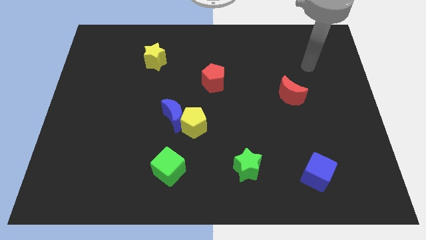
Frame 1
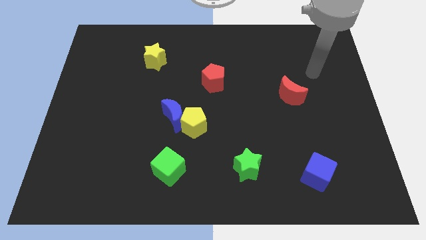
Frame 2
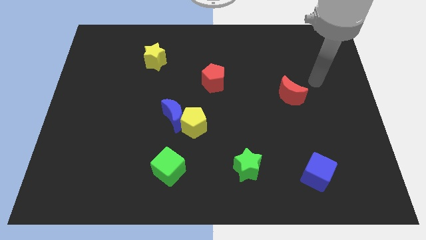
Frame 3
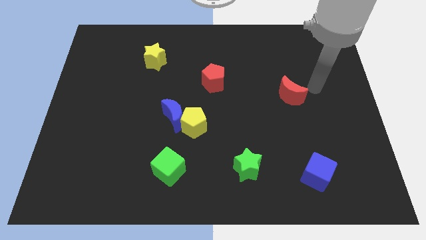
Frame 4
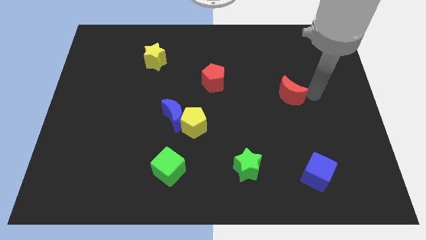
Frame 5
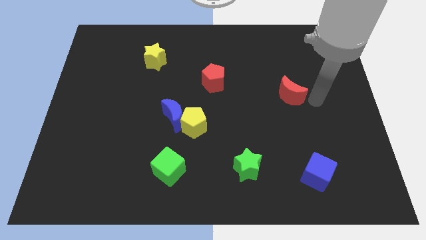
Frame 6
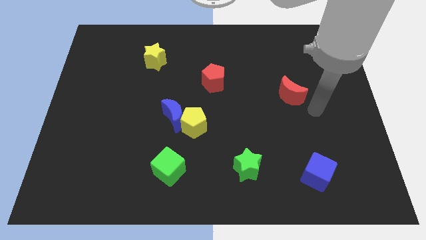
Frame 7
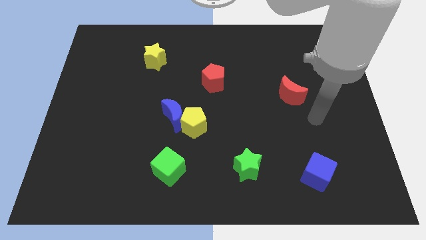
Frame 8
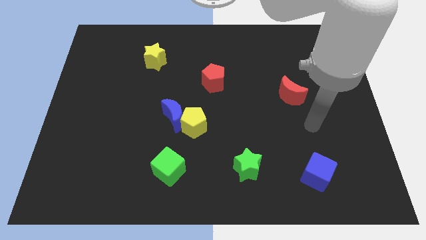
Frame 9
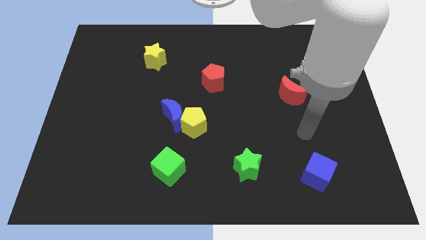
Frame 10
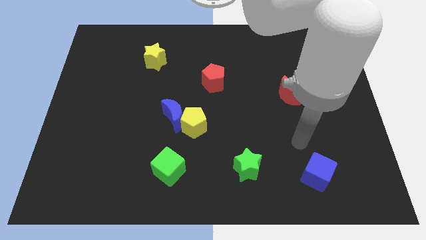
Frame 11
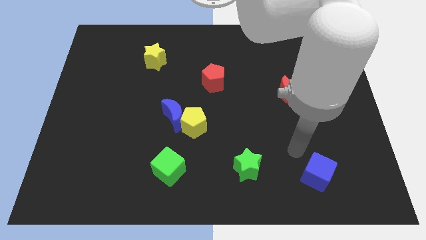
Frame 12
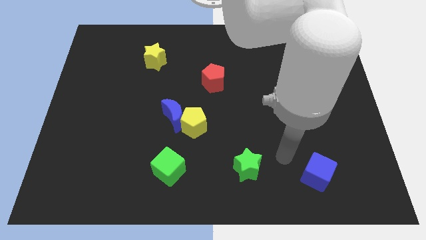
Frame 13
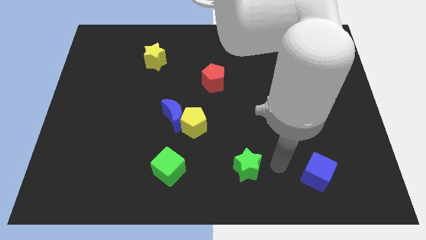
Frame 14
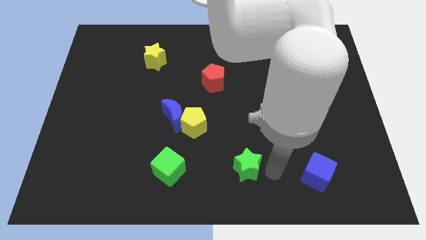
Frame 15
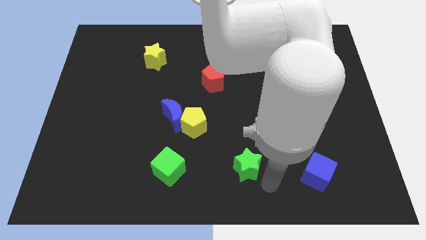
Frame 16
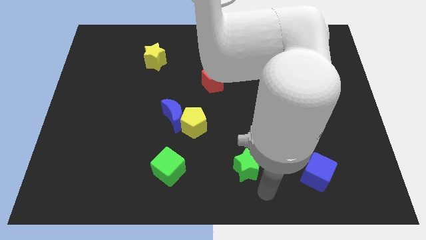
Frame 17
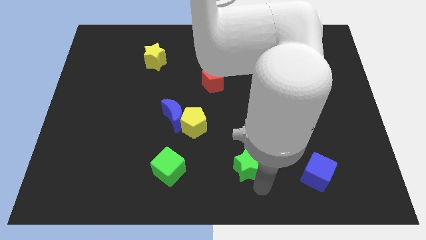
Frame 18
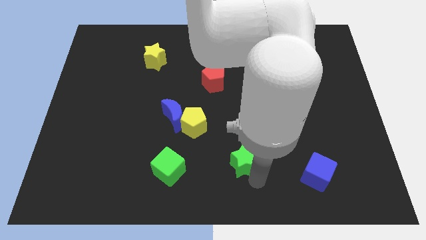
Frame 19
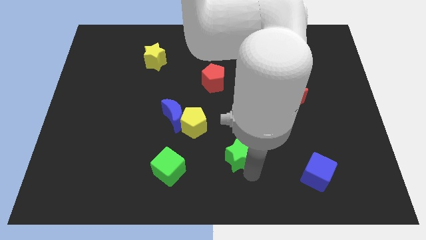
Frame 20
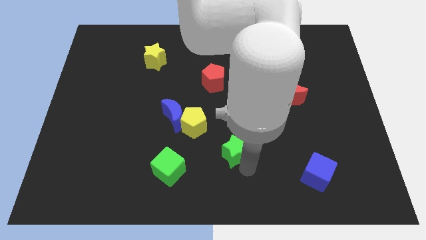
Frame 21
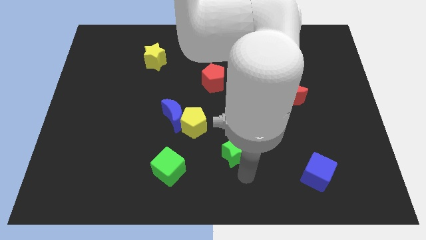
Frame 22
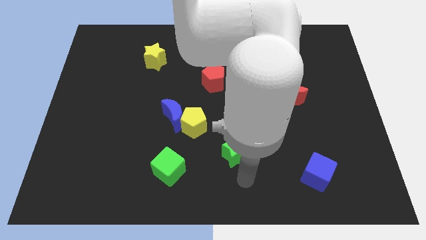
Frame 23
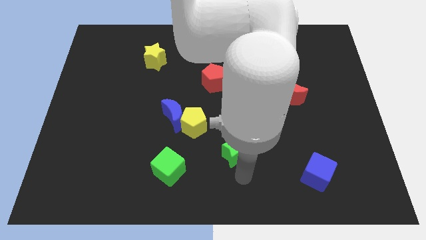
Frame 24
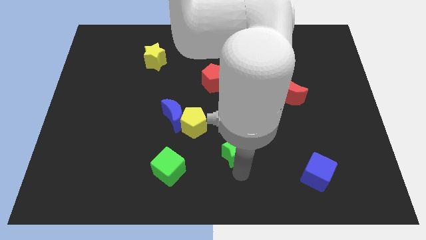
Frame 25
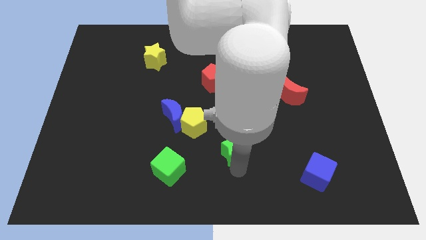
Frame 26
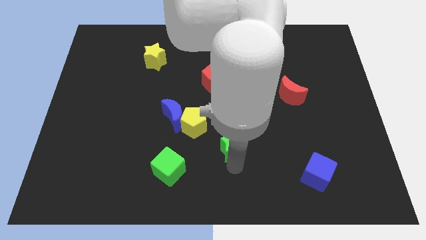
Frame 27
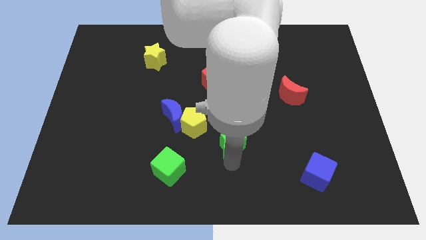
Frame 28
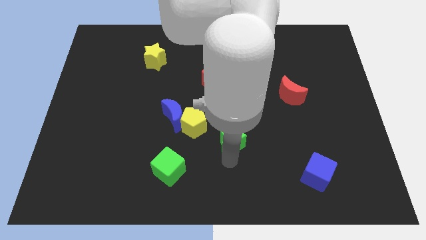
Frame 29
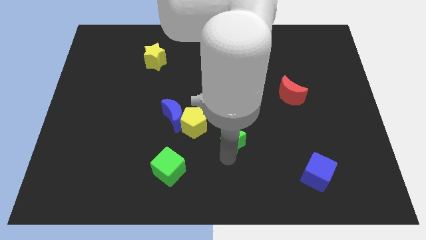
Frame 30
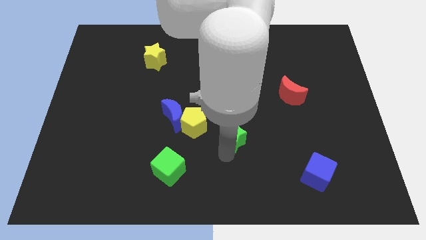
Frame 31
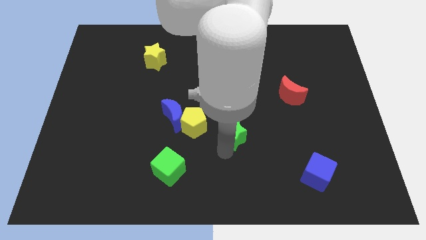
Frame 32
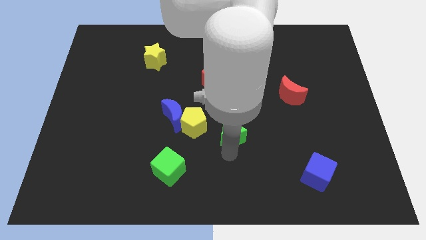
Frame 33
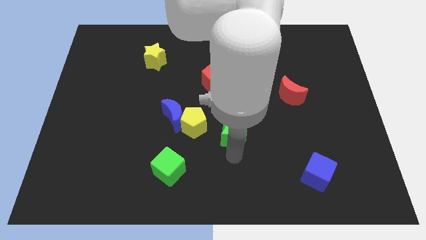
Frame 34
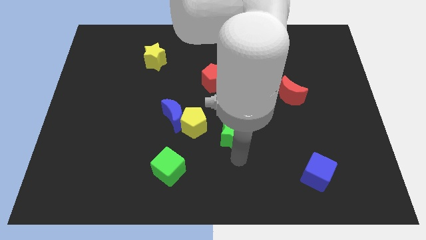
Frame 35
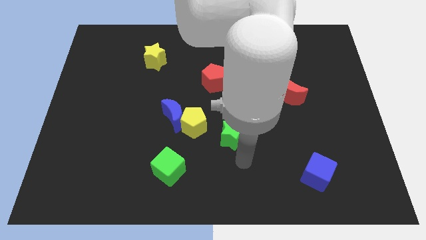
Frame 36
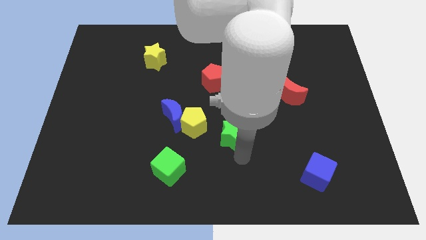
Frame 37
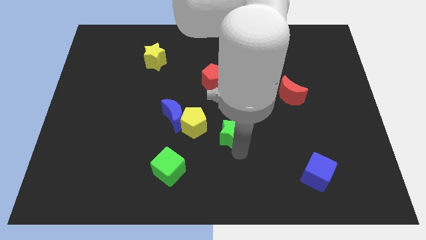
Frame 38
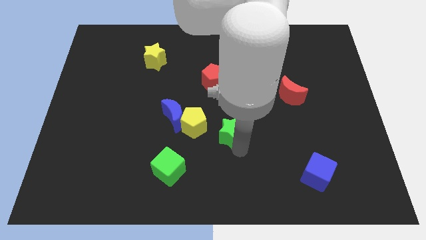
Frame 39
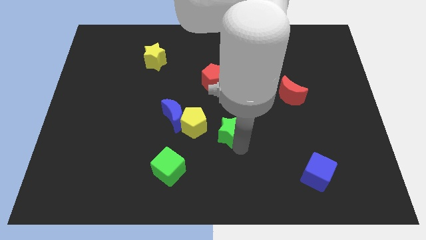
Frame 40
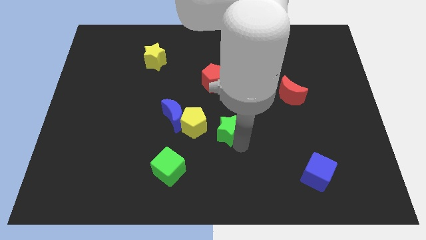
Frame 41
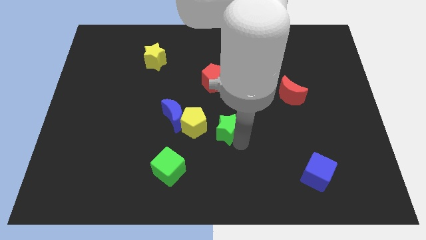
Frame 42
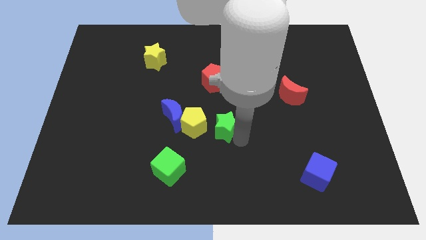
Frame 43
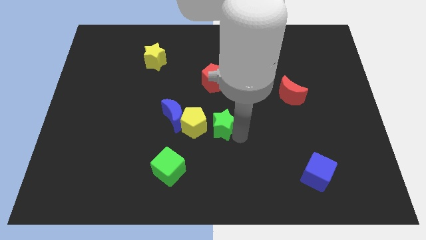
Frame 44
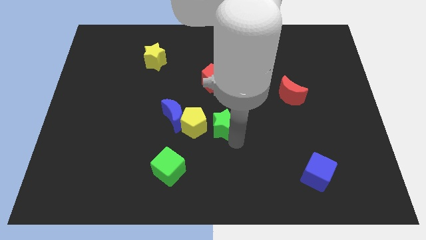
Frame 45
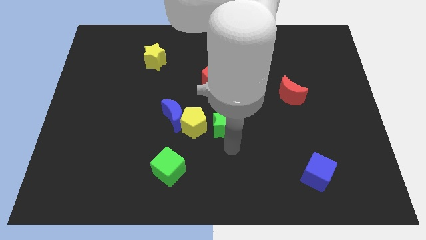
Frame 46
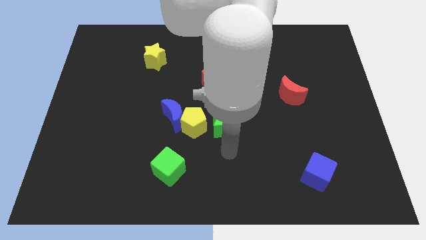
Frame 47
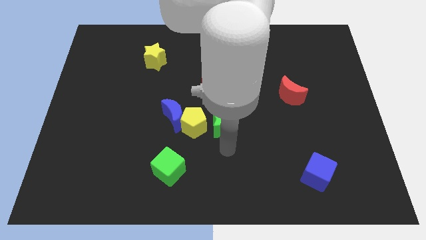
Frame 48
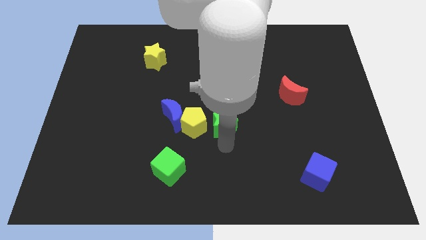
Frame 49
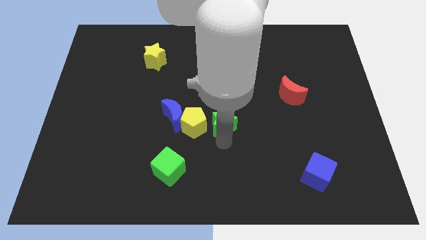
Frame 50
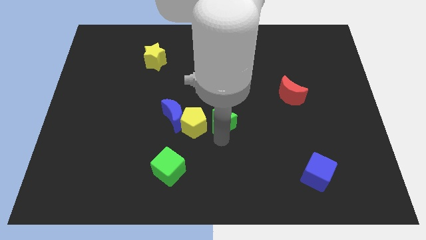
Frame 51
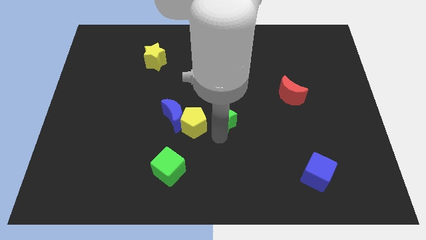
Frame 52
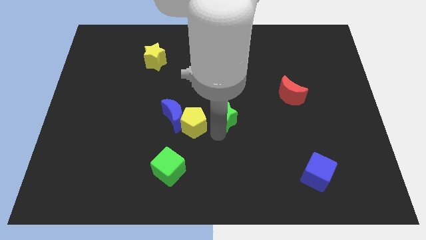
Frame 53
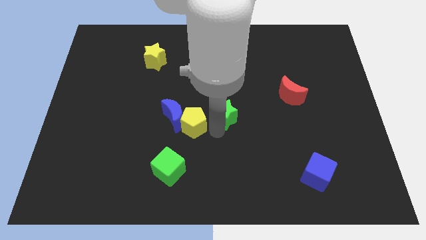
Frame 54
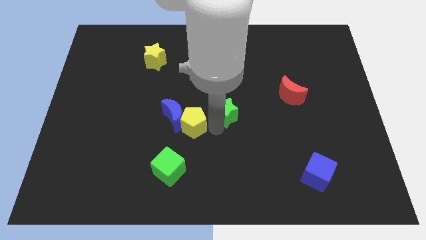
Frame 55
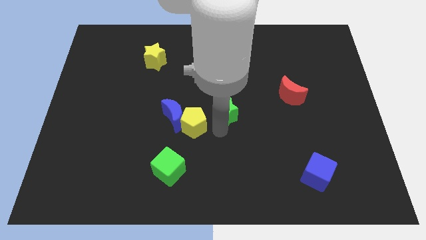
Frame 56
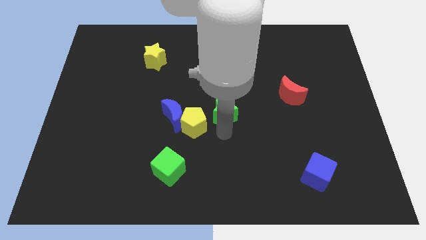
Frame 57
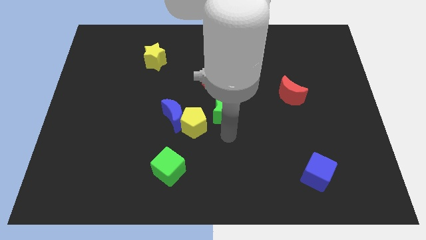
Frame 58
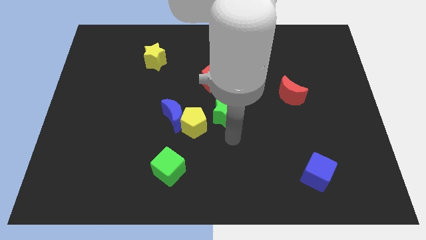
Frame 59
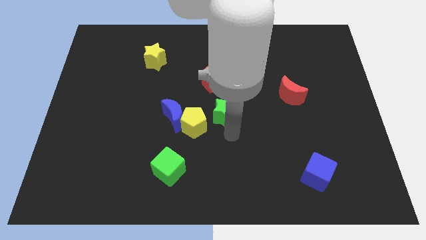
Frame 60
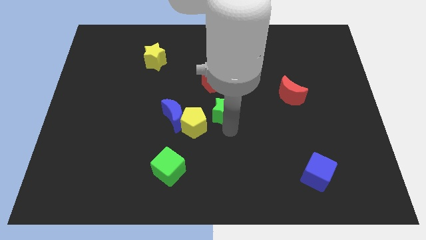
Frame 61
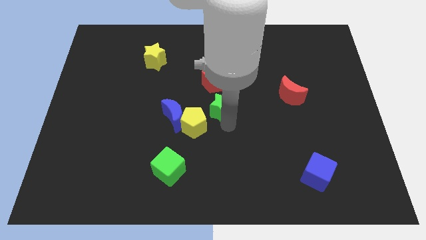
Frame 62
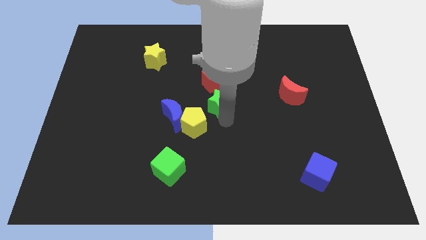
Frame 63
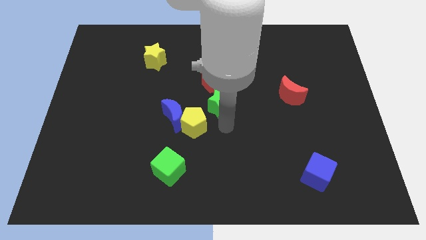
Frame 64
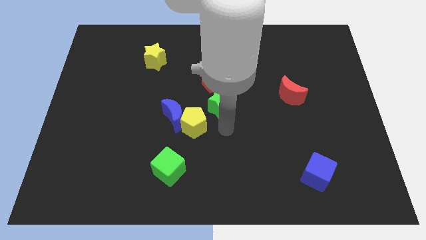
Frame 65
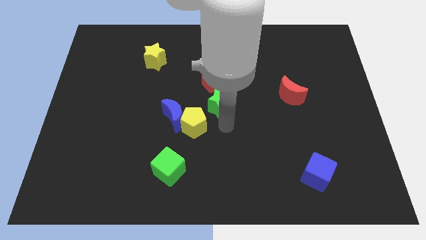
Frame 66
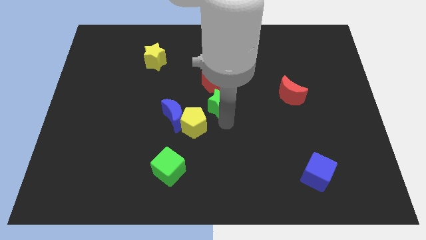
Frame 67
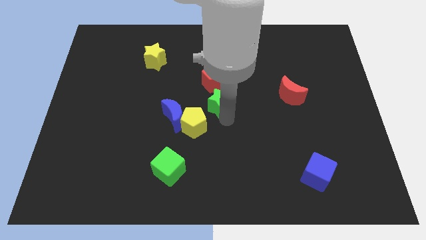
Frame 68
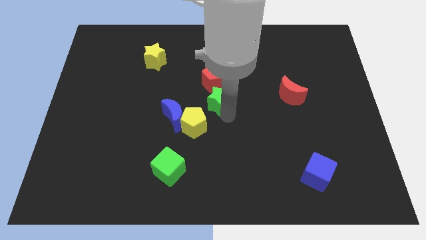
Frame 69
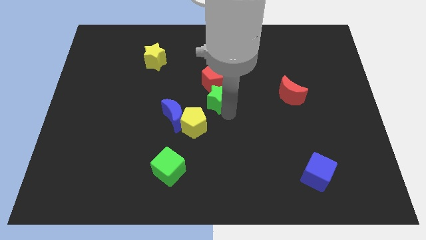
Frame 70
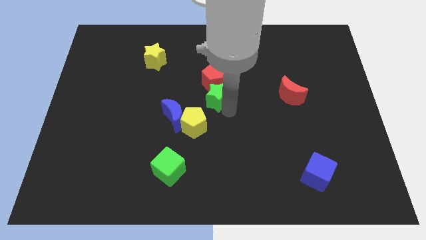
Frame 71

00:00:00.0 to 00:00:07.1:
slide the green star next to the red pentagon
